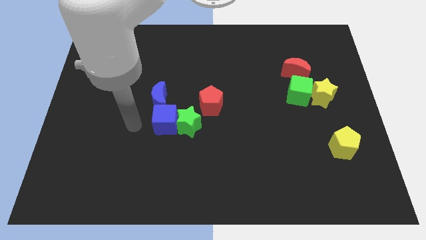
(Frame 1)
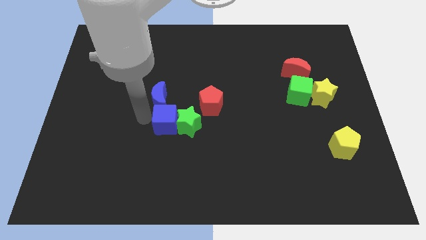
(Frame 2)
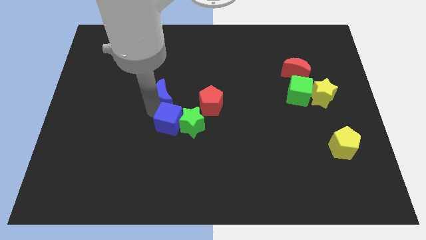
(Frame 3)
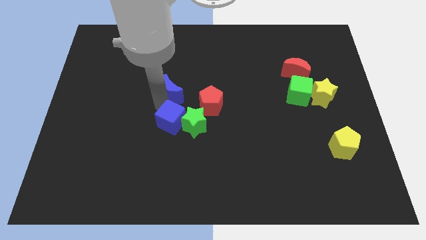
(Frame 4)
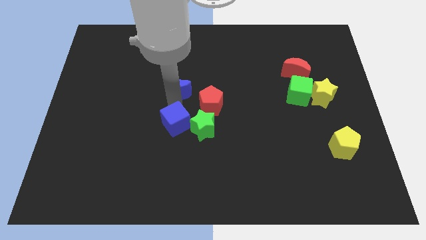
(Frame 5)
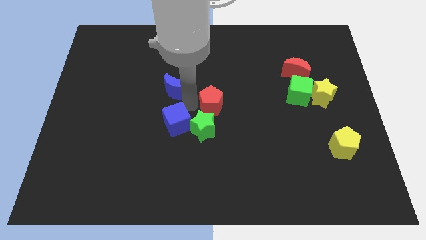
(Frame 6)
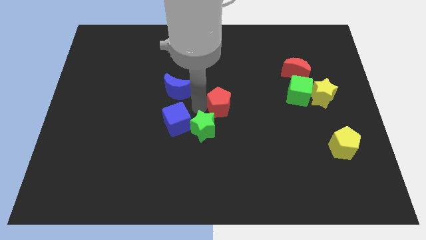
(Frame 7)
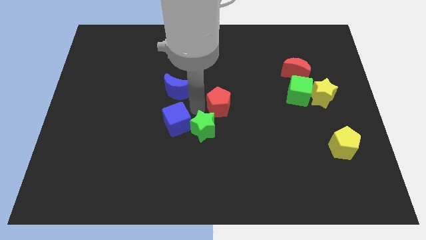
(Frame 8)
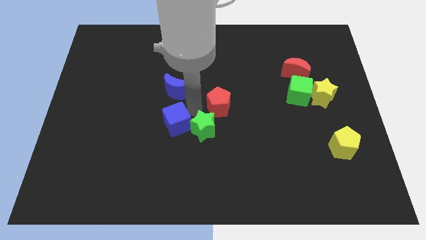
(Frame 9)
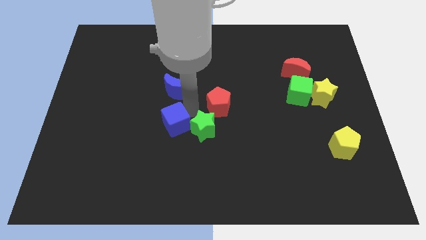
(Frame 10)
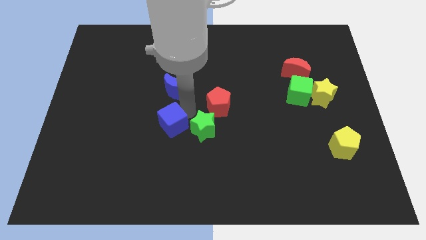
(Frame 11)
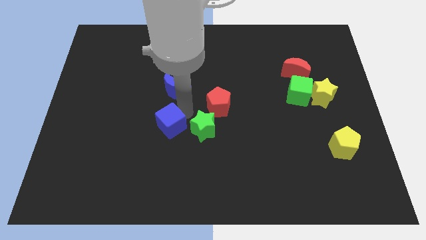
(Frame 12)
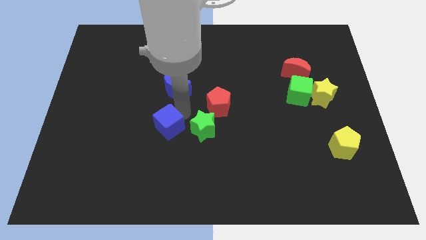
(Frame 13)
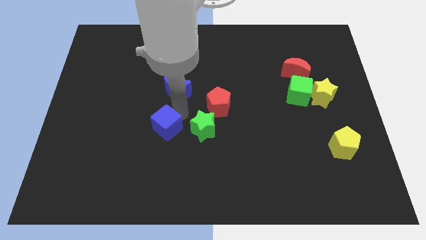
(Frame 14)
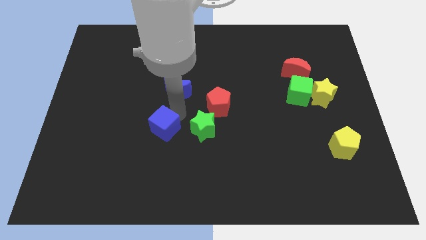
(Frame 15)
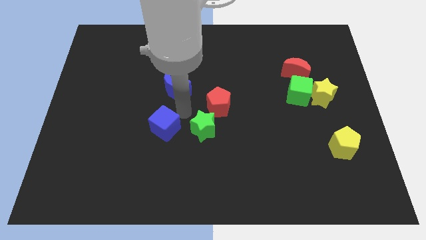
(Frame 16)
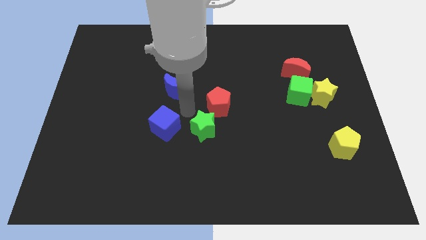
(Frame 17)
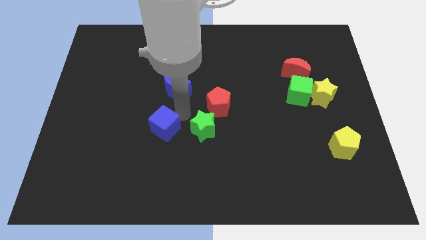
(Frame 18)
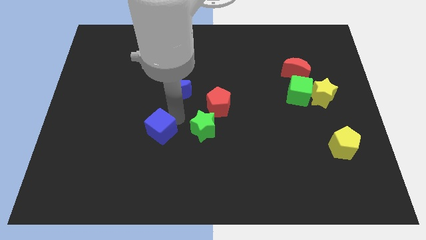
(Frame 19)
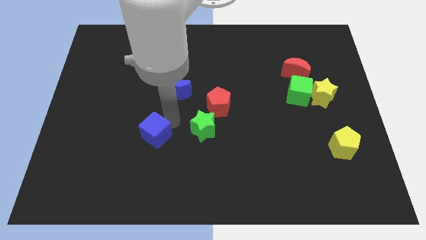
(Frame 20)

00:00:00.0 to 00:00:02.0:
move the blue cube away from the green star and blue moon

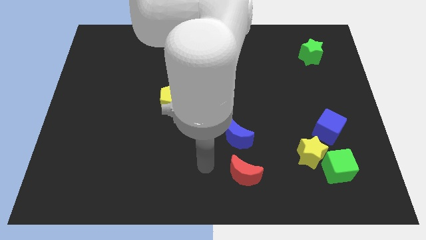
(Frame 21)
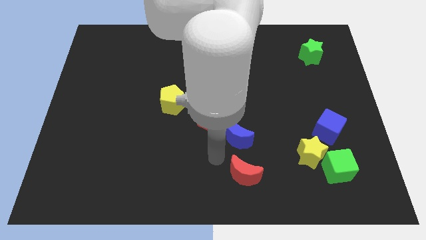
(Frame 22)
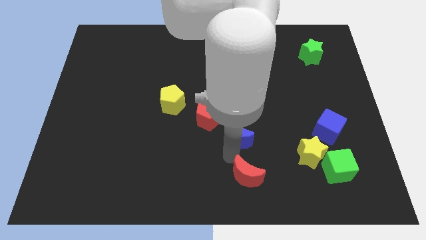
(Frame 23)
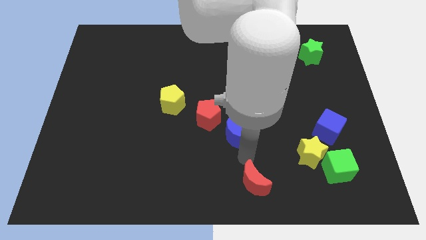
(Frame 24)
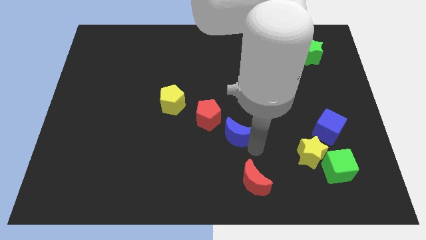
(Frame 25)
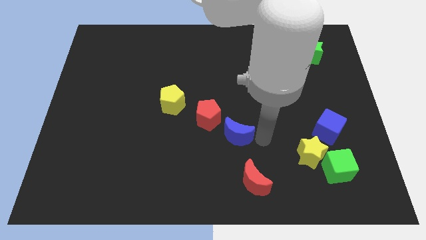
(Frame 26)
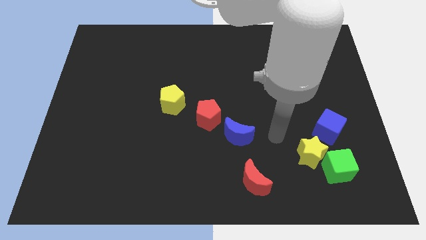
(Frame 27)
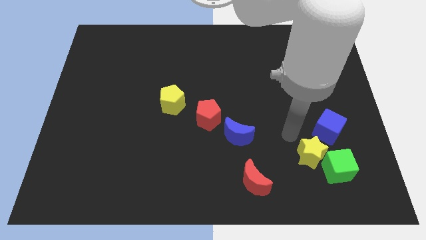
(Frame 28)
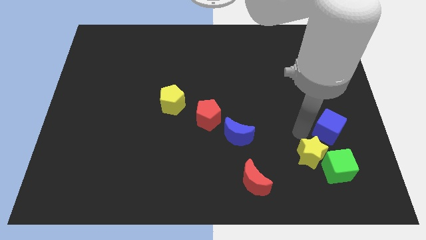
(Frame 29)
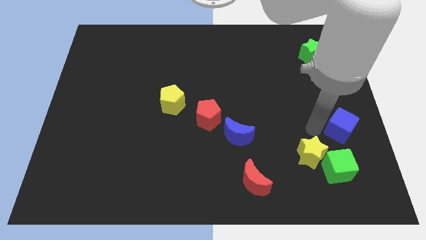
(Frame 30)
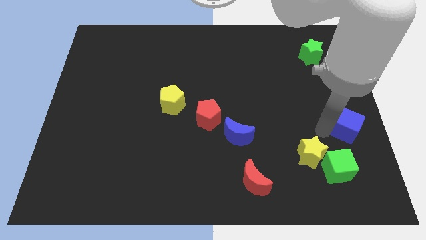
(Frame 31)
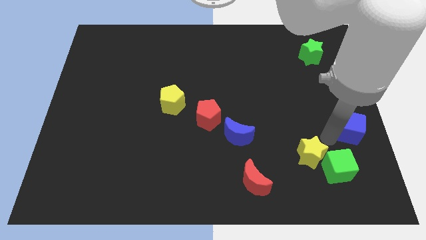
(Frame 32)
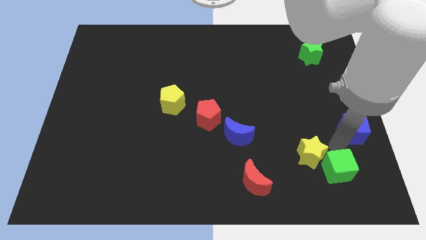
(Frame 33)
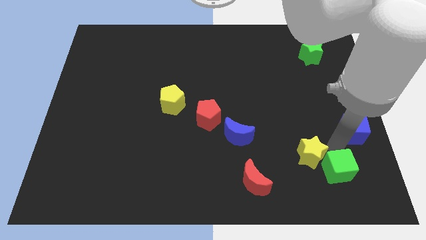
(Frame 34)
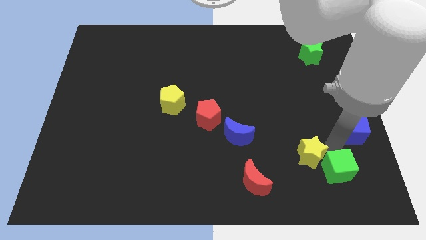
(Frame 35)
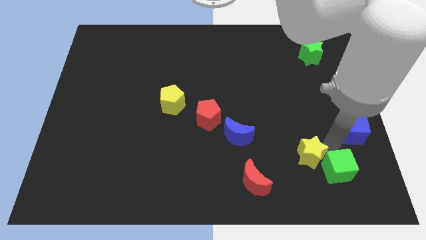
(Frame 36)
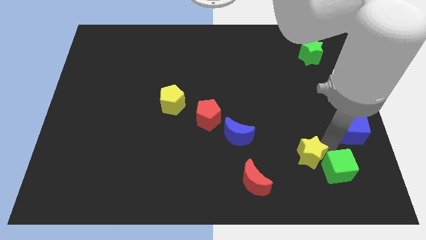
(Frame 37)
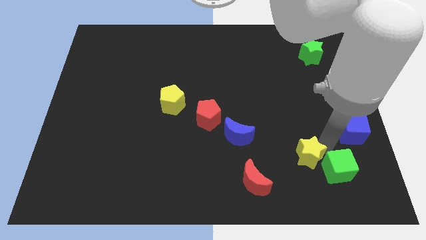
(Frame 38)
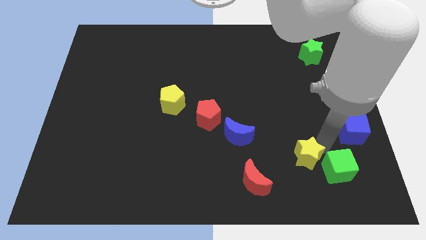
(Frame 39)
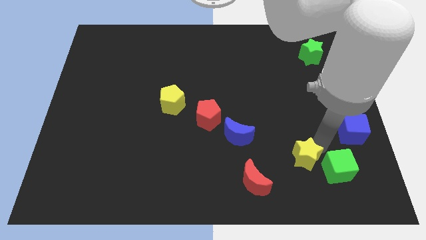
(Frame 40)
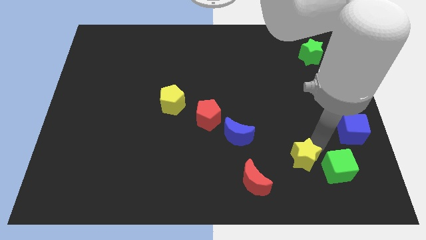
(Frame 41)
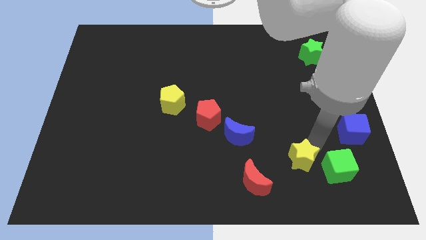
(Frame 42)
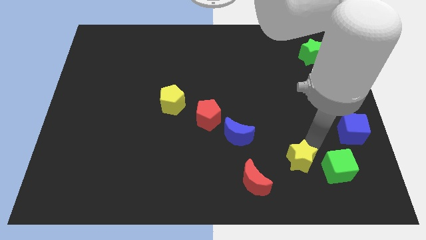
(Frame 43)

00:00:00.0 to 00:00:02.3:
move the yellow star away from the green cube and blue cube

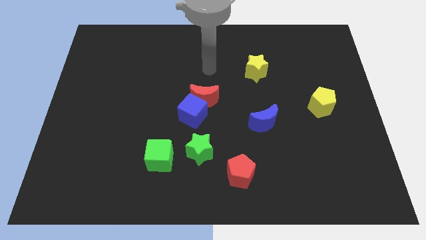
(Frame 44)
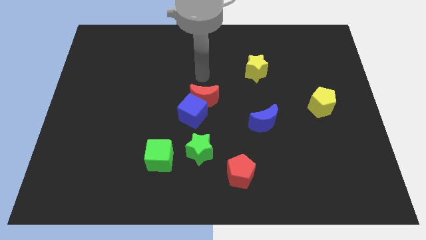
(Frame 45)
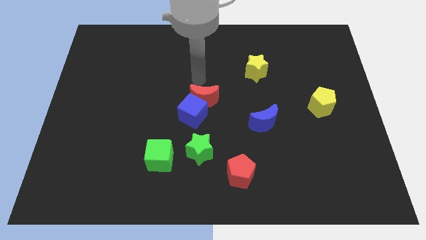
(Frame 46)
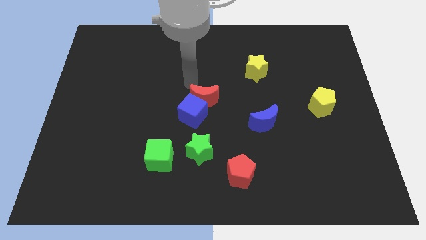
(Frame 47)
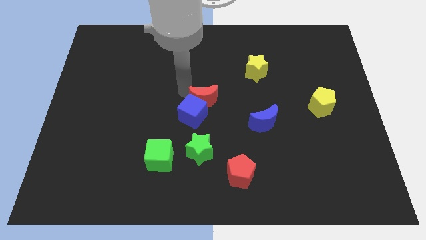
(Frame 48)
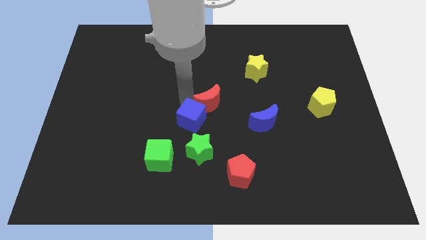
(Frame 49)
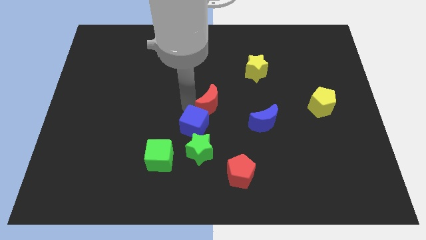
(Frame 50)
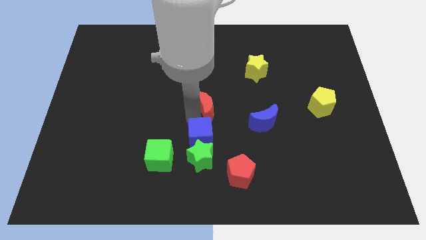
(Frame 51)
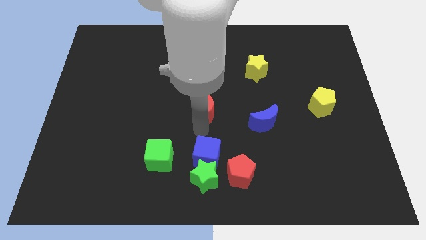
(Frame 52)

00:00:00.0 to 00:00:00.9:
separate the red moon from the blue cube

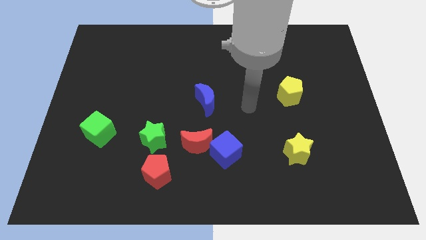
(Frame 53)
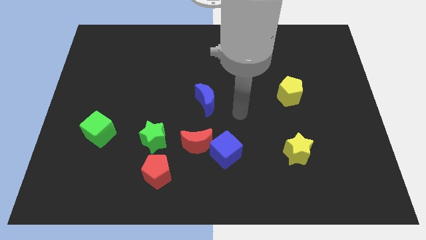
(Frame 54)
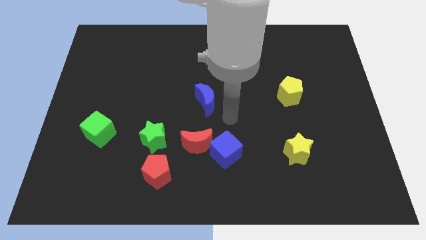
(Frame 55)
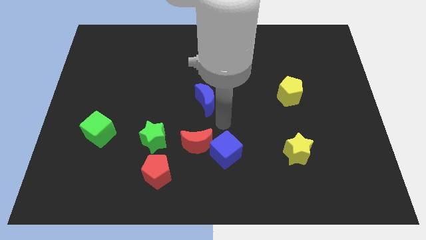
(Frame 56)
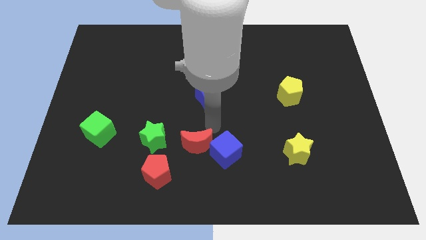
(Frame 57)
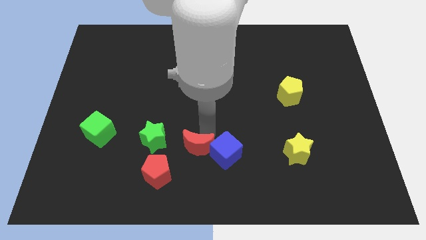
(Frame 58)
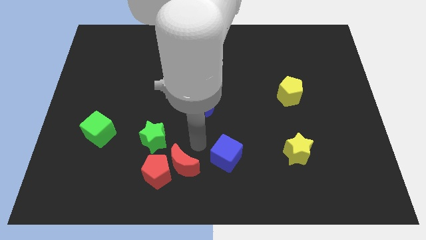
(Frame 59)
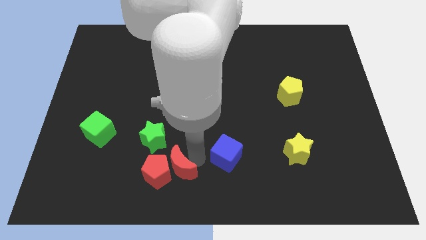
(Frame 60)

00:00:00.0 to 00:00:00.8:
separate the blue cube from the red moon

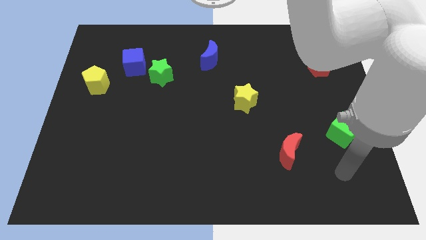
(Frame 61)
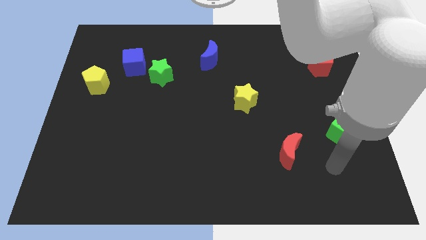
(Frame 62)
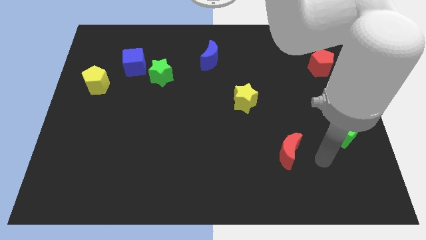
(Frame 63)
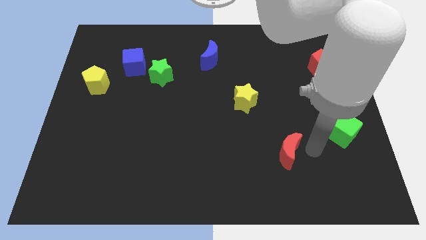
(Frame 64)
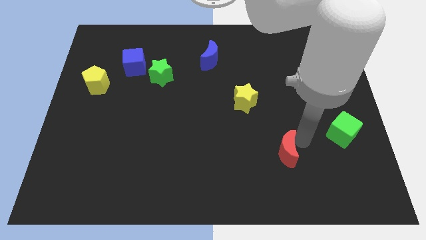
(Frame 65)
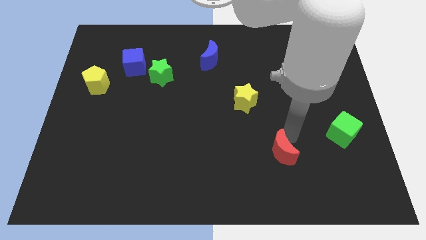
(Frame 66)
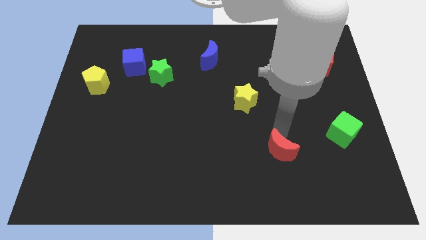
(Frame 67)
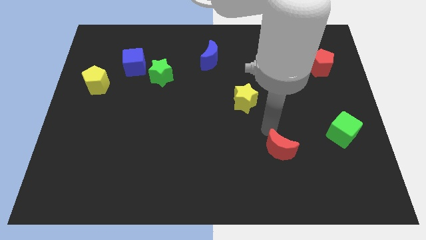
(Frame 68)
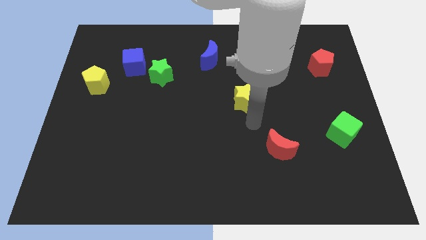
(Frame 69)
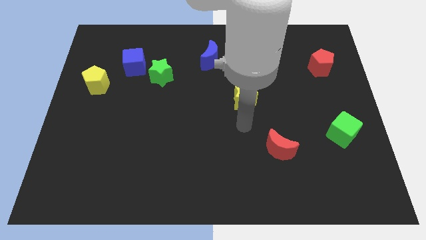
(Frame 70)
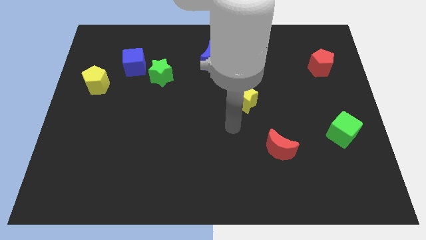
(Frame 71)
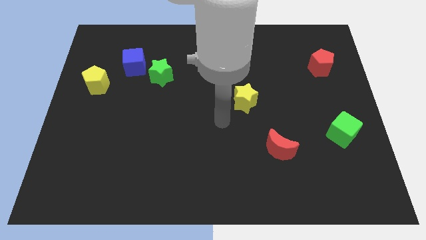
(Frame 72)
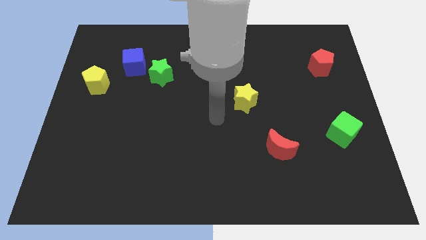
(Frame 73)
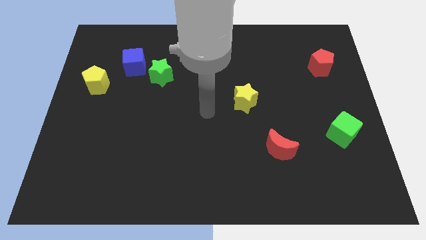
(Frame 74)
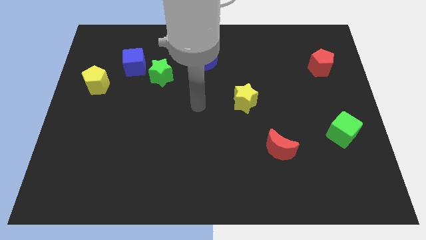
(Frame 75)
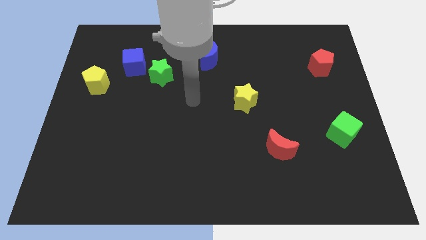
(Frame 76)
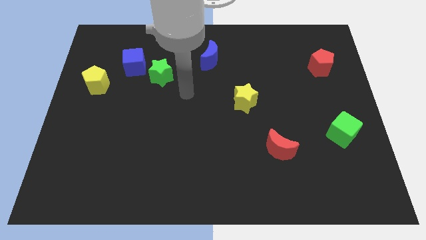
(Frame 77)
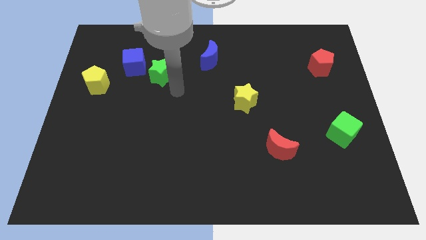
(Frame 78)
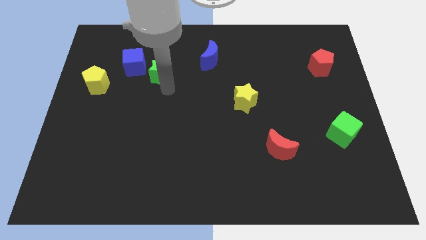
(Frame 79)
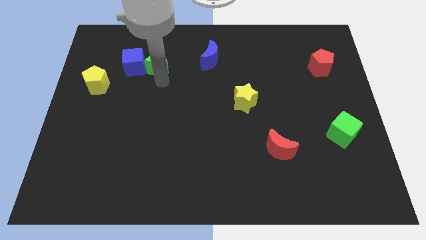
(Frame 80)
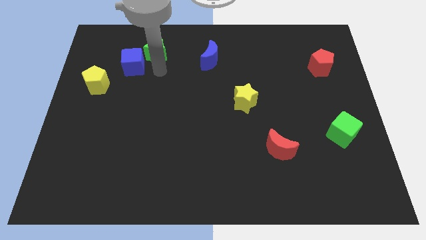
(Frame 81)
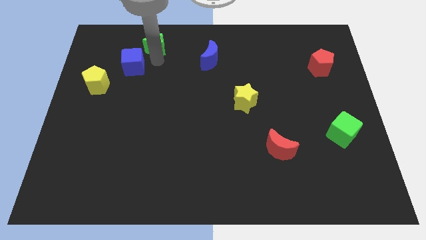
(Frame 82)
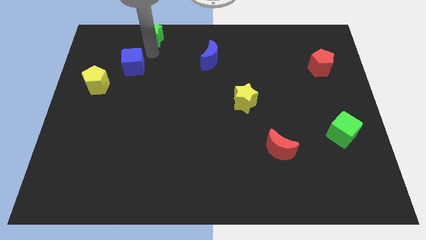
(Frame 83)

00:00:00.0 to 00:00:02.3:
separate the blue cube from the green star

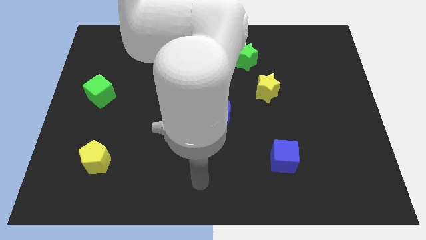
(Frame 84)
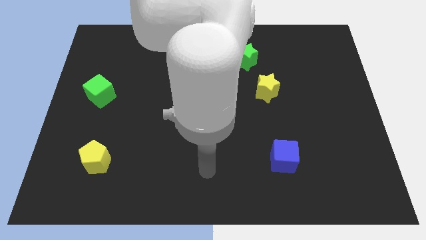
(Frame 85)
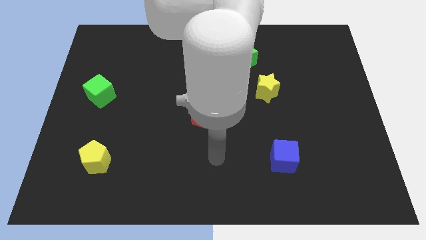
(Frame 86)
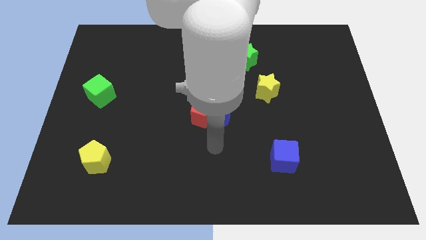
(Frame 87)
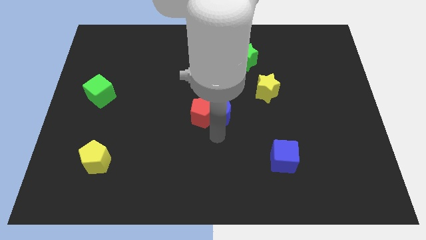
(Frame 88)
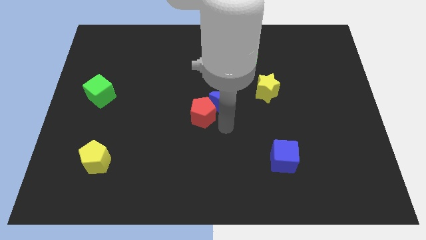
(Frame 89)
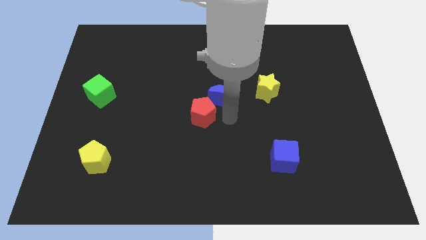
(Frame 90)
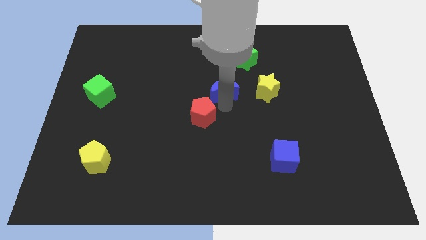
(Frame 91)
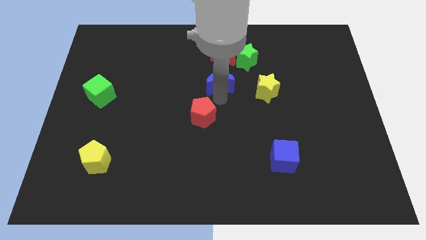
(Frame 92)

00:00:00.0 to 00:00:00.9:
pull the red pentagon apart from the blue moon
